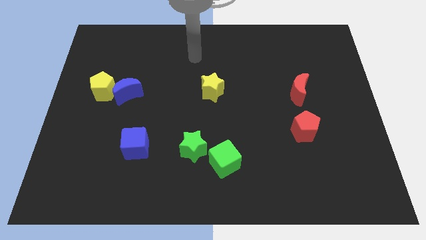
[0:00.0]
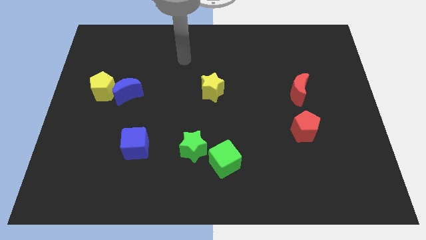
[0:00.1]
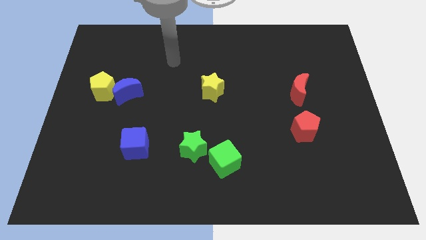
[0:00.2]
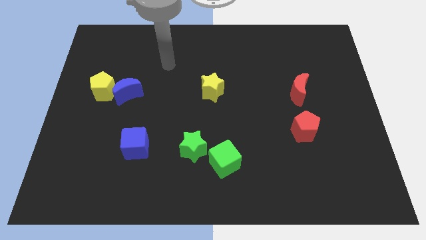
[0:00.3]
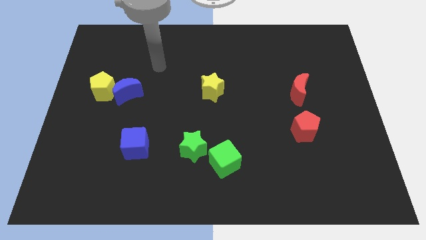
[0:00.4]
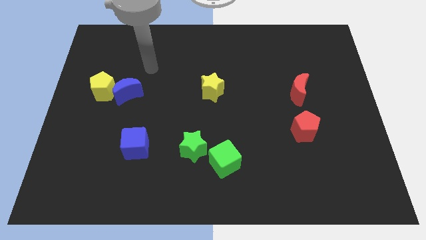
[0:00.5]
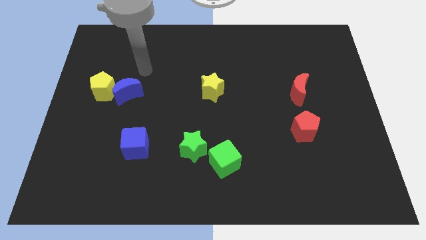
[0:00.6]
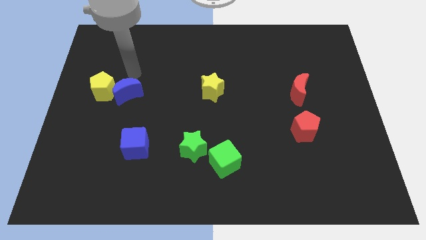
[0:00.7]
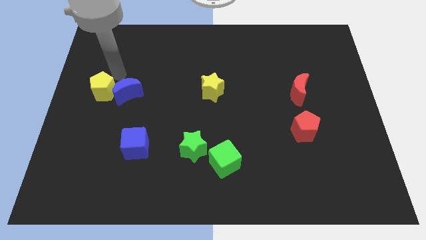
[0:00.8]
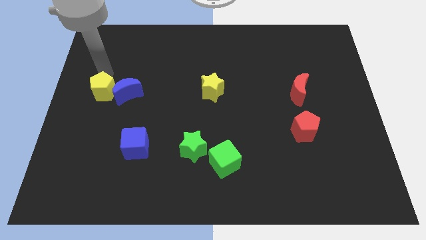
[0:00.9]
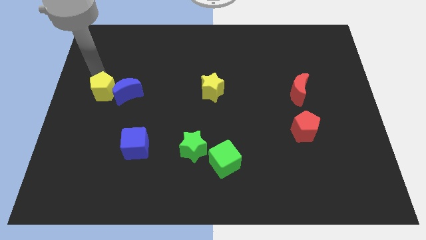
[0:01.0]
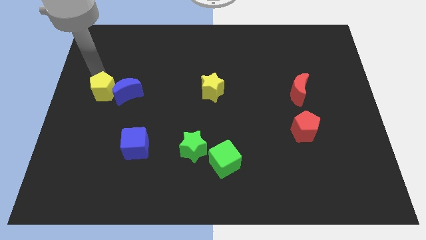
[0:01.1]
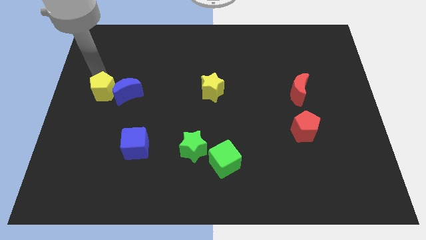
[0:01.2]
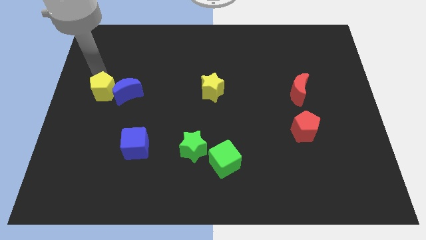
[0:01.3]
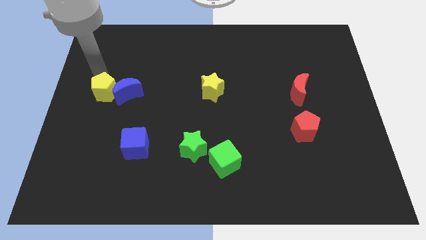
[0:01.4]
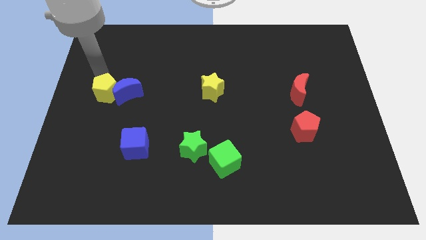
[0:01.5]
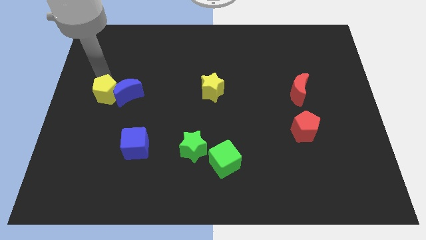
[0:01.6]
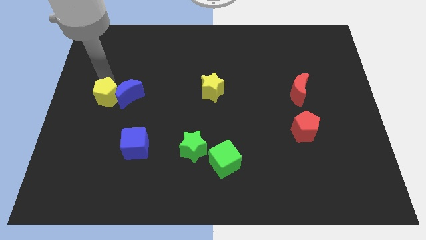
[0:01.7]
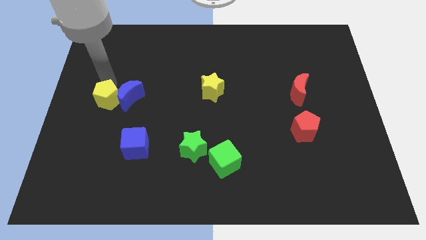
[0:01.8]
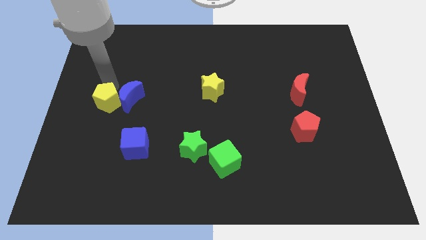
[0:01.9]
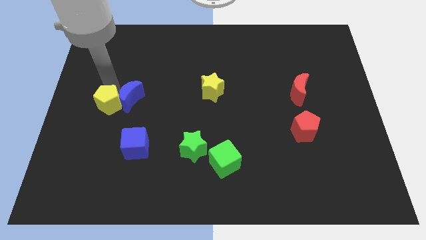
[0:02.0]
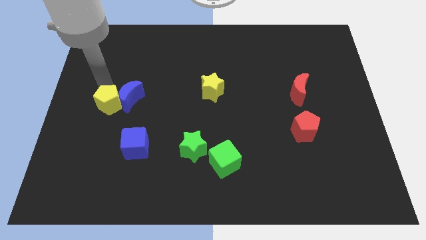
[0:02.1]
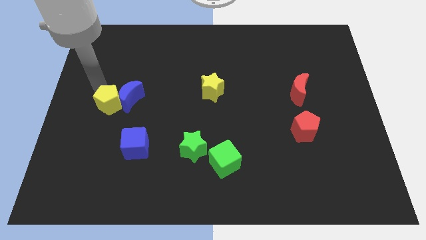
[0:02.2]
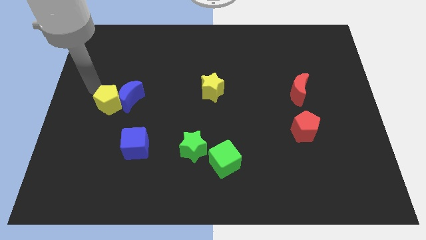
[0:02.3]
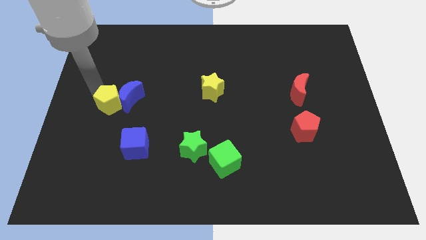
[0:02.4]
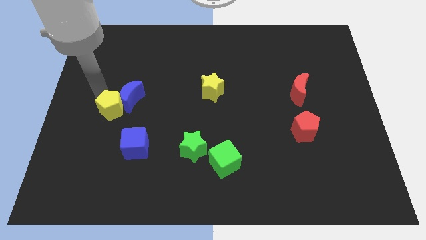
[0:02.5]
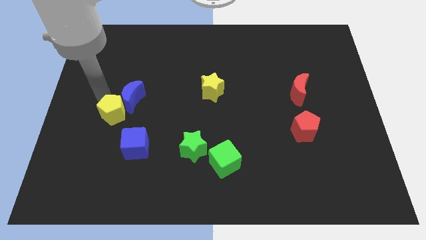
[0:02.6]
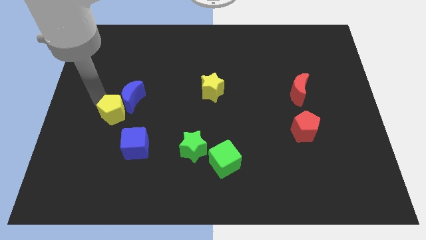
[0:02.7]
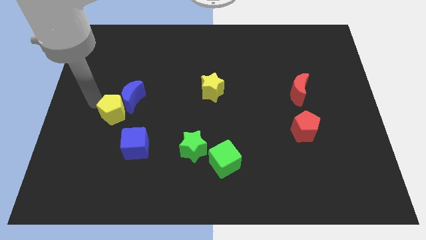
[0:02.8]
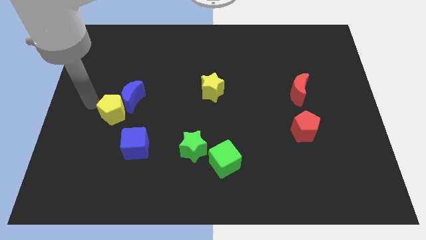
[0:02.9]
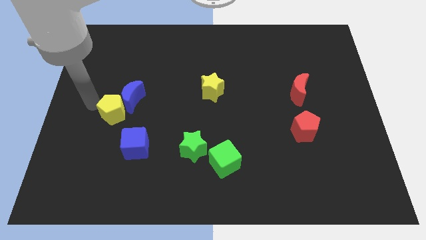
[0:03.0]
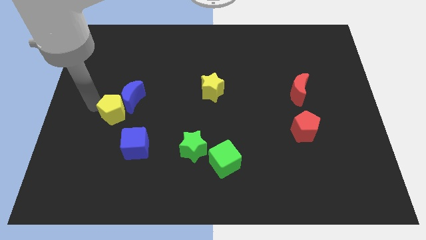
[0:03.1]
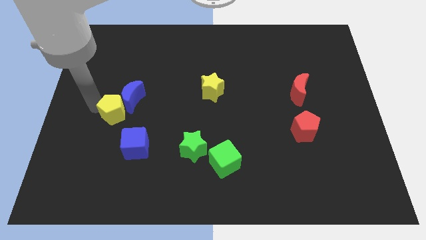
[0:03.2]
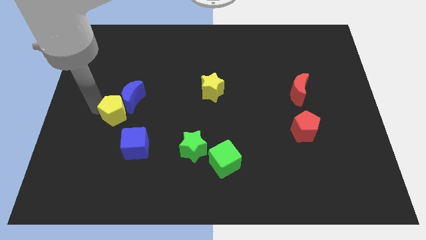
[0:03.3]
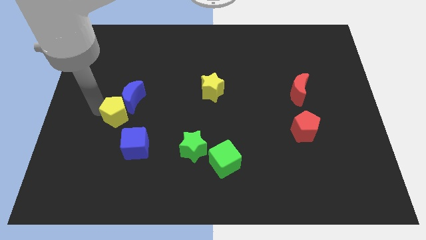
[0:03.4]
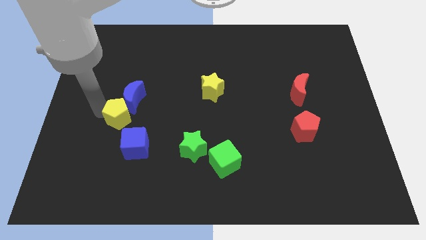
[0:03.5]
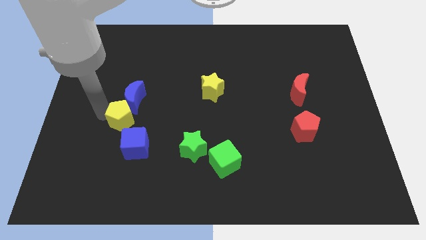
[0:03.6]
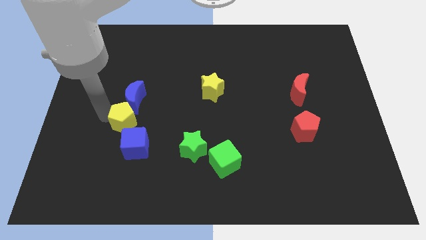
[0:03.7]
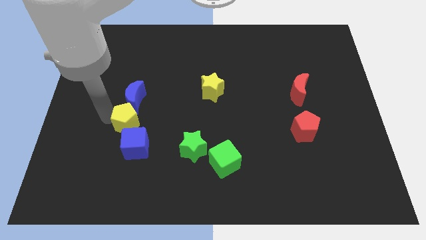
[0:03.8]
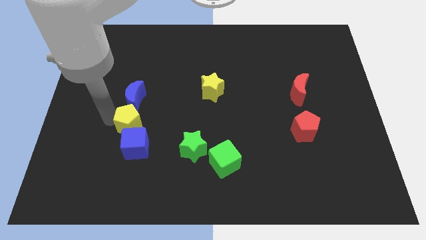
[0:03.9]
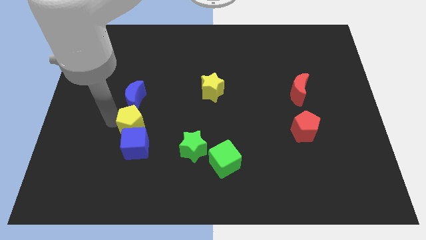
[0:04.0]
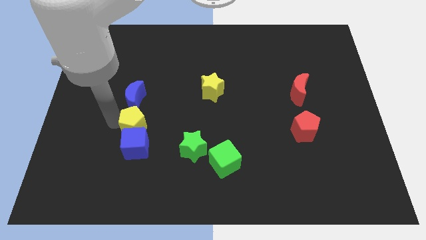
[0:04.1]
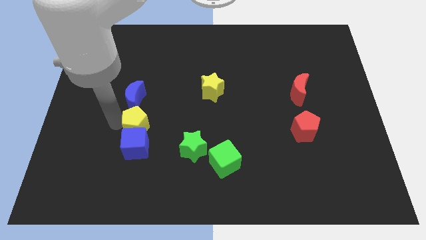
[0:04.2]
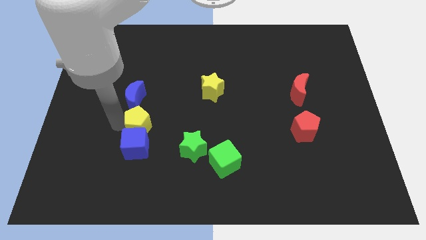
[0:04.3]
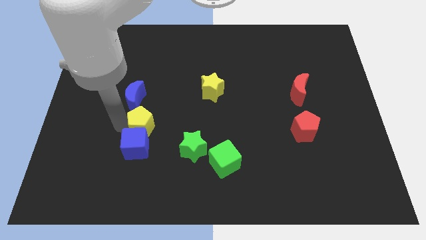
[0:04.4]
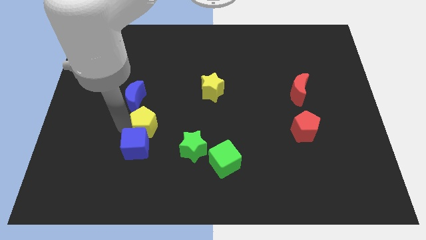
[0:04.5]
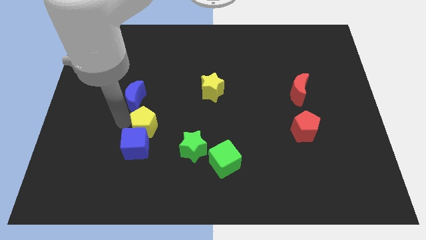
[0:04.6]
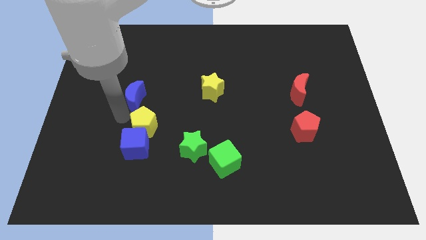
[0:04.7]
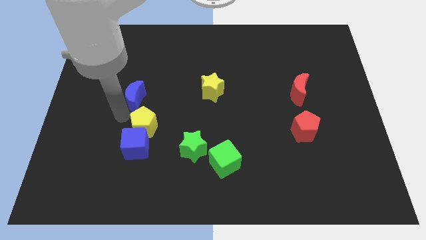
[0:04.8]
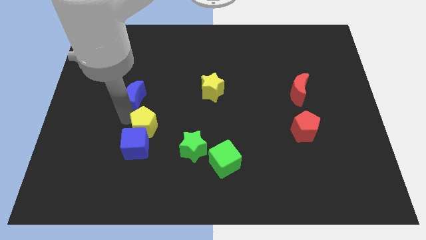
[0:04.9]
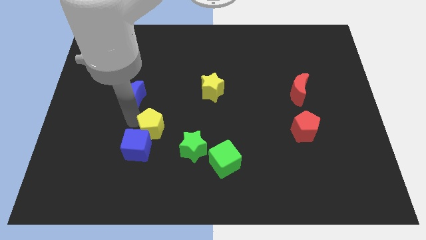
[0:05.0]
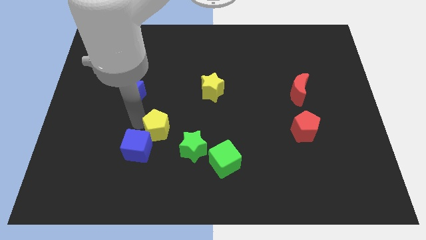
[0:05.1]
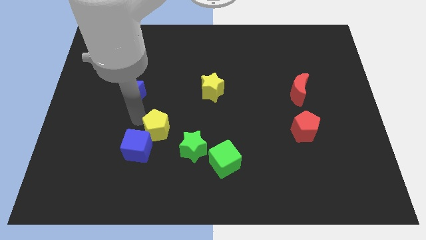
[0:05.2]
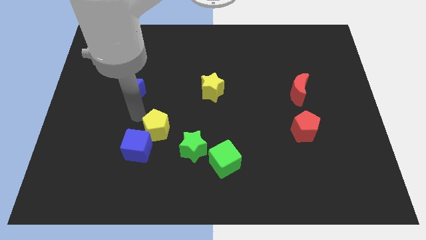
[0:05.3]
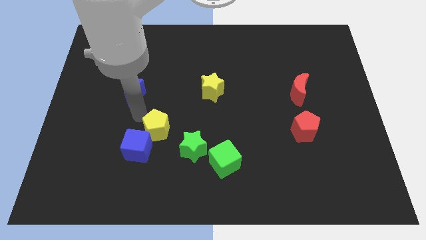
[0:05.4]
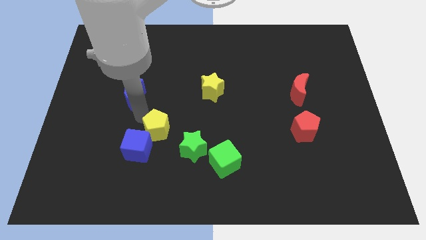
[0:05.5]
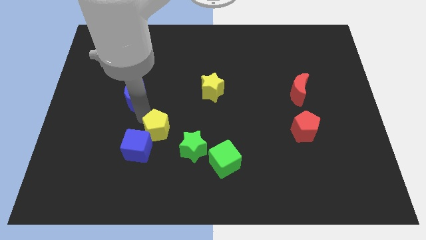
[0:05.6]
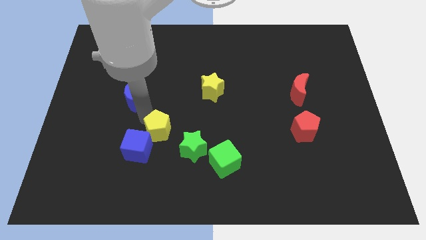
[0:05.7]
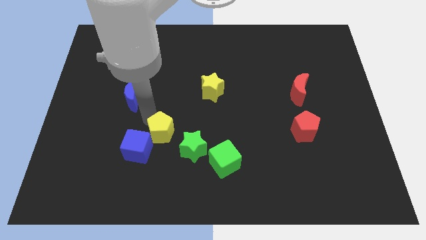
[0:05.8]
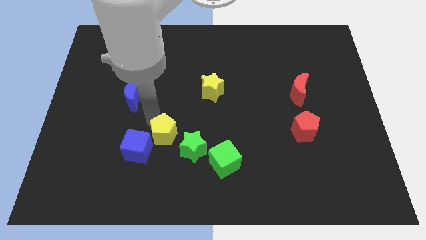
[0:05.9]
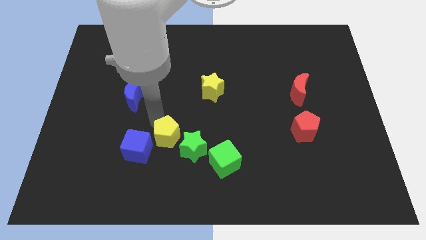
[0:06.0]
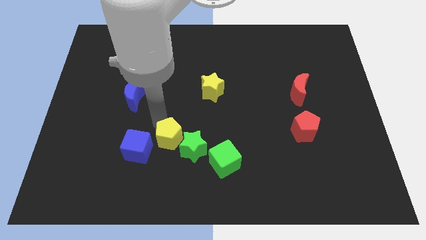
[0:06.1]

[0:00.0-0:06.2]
move the yellow pentagon close to the green star

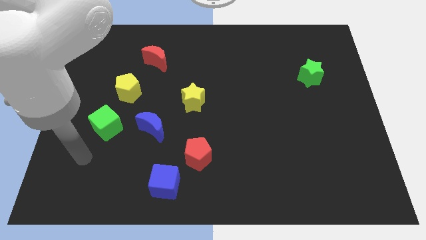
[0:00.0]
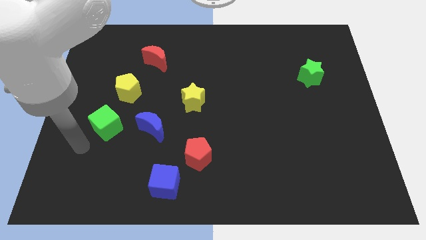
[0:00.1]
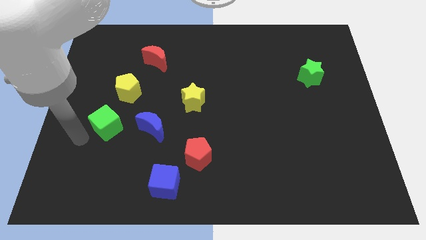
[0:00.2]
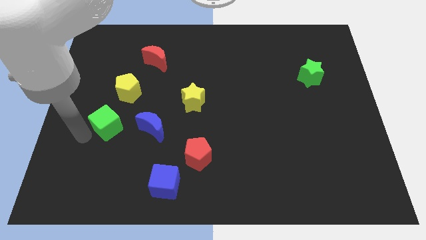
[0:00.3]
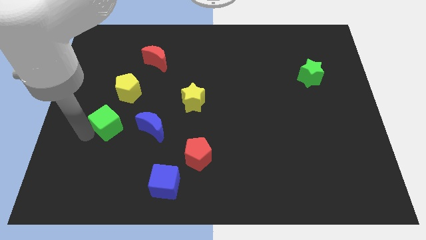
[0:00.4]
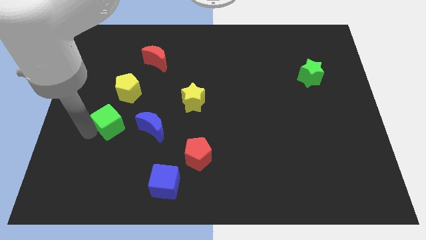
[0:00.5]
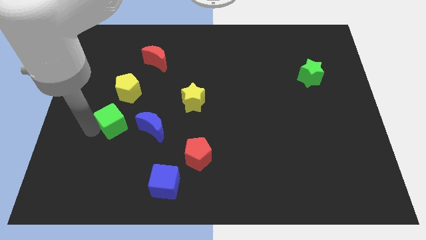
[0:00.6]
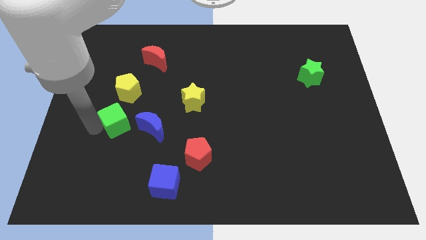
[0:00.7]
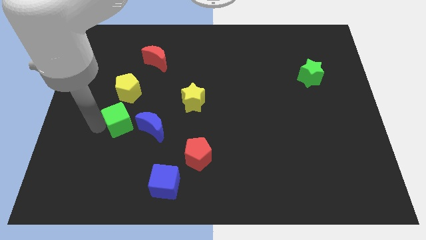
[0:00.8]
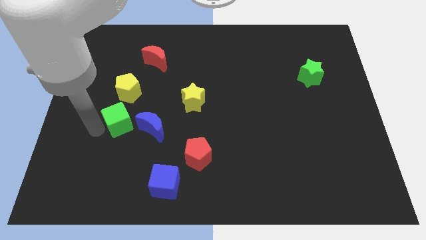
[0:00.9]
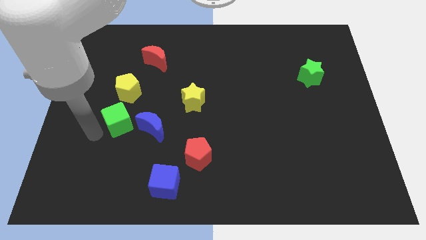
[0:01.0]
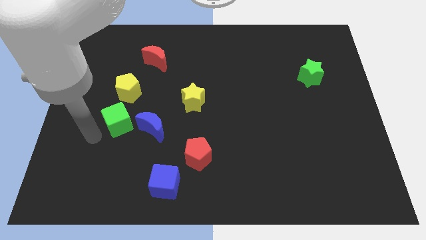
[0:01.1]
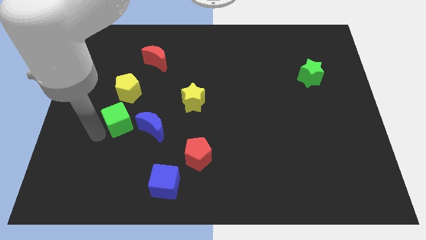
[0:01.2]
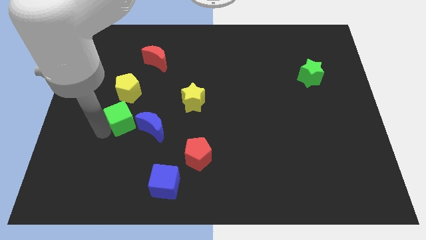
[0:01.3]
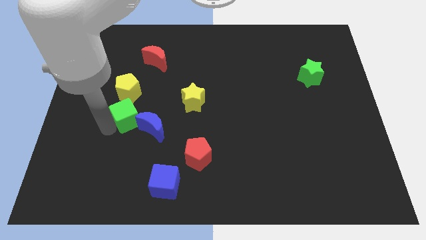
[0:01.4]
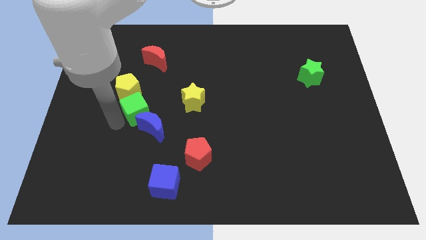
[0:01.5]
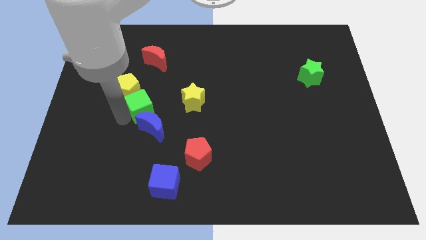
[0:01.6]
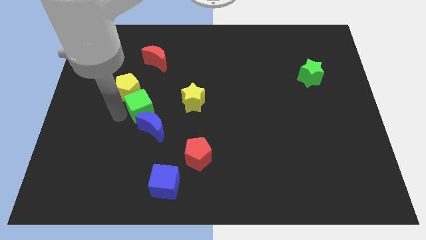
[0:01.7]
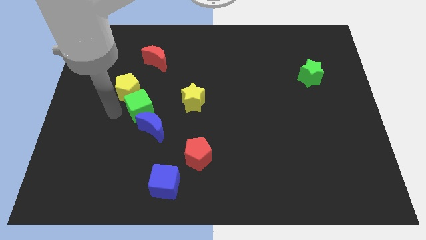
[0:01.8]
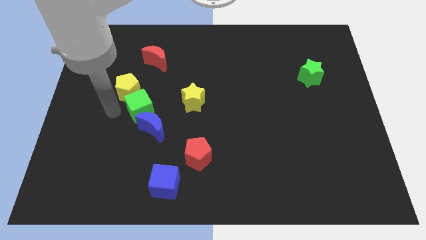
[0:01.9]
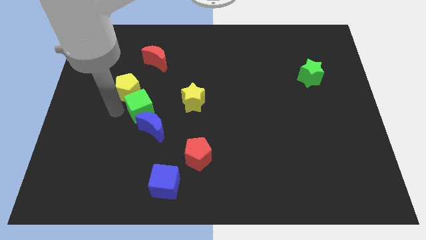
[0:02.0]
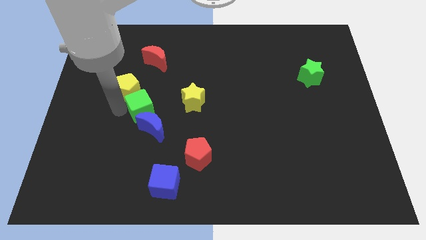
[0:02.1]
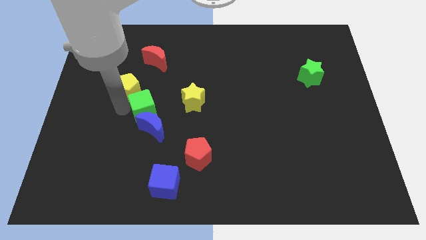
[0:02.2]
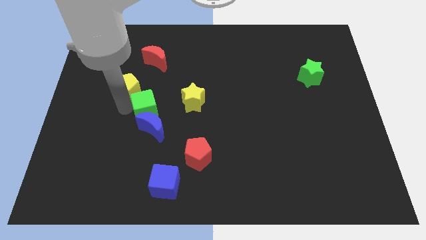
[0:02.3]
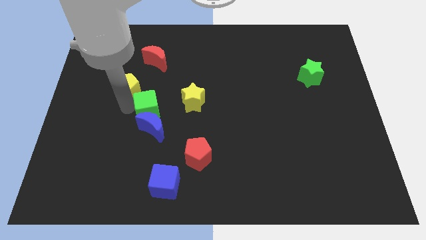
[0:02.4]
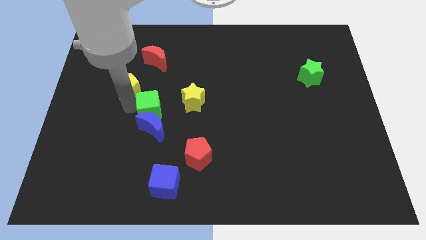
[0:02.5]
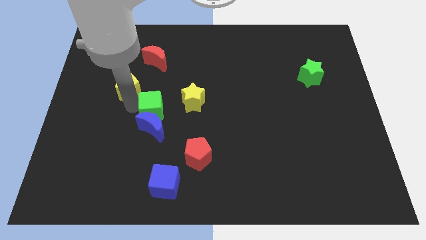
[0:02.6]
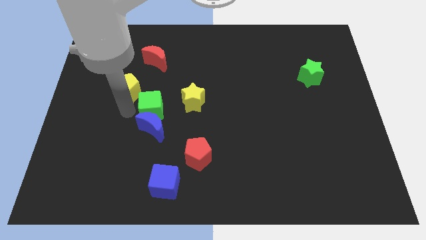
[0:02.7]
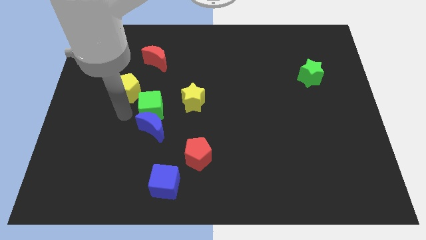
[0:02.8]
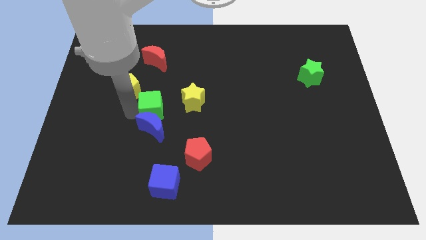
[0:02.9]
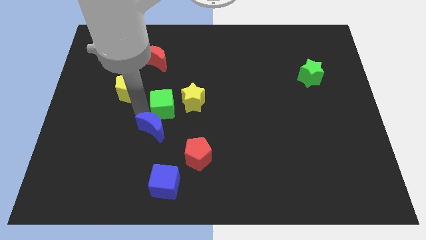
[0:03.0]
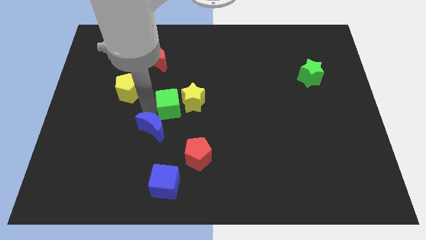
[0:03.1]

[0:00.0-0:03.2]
move the green cube next to the yellow star
